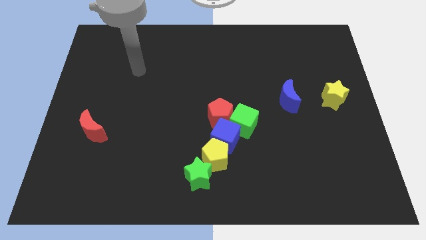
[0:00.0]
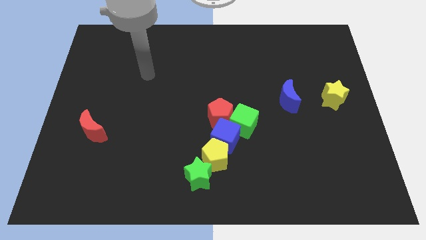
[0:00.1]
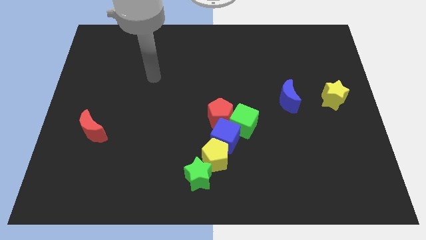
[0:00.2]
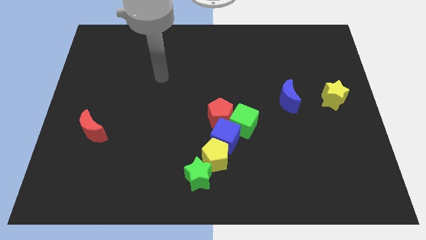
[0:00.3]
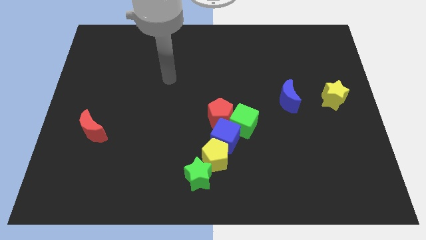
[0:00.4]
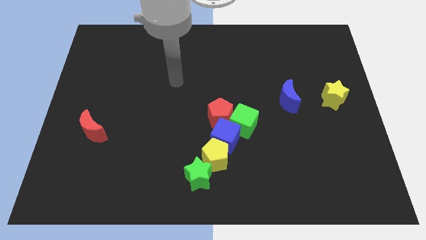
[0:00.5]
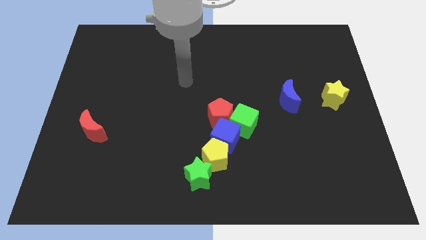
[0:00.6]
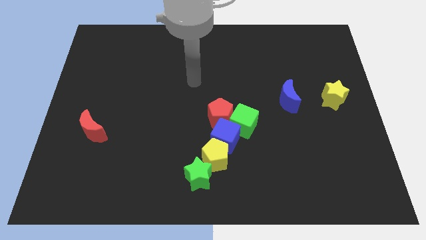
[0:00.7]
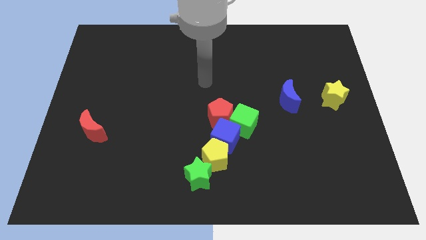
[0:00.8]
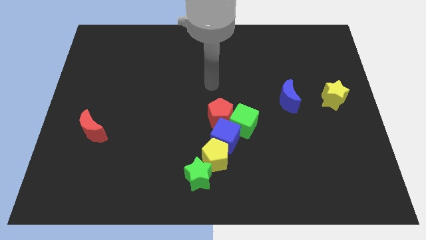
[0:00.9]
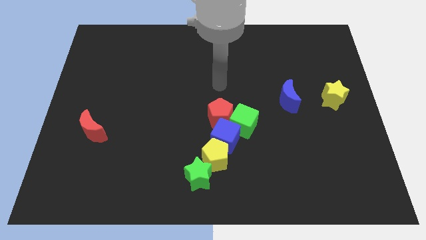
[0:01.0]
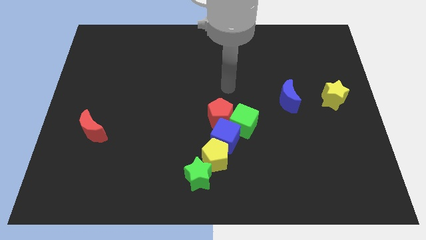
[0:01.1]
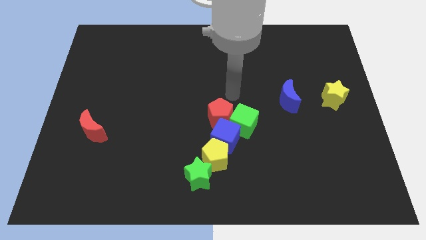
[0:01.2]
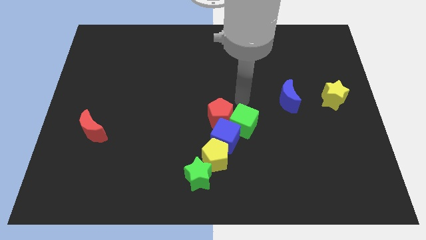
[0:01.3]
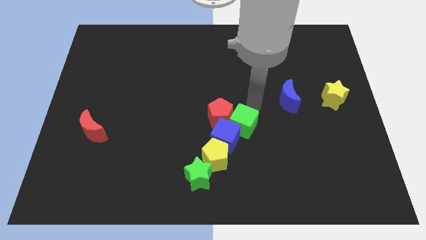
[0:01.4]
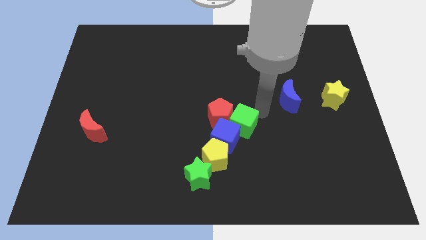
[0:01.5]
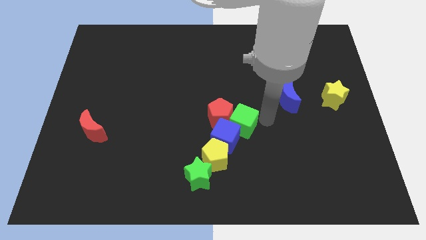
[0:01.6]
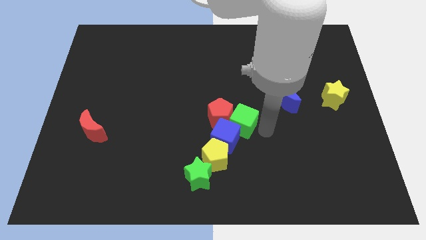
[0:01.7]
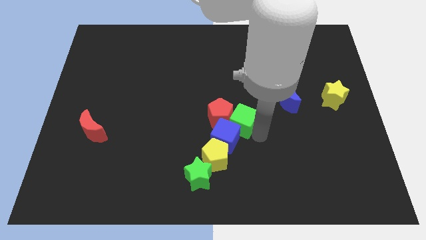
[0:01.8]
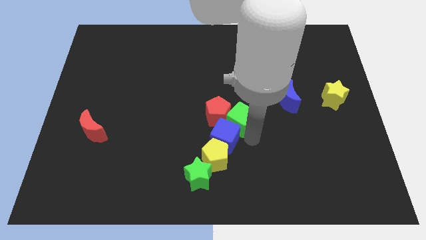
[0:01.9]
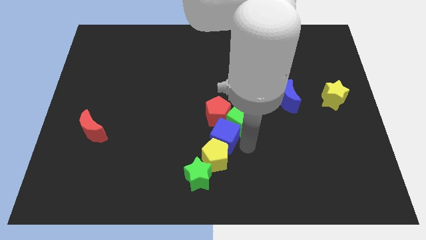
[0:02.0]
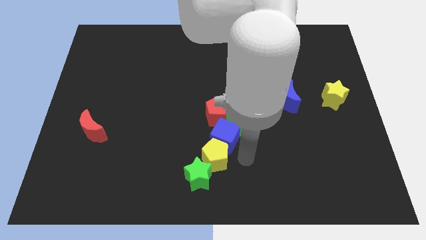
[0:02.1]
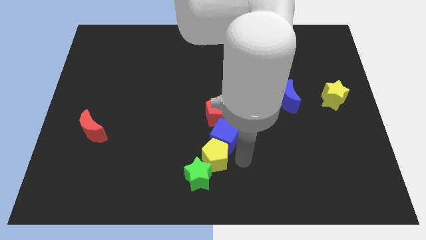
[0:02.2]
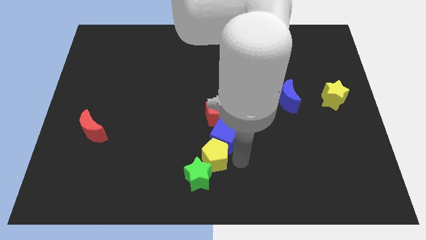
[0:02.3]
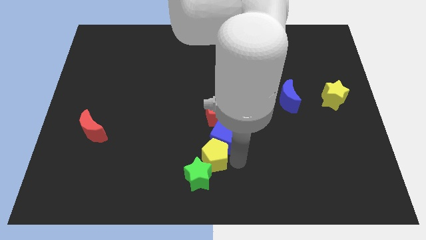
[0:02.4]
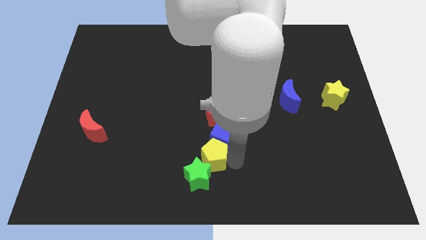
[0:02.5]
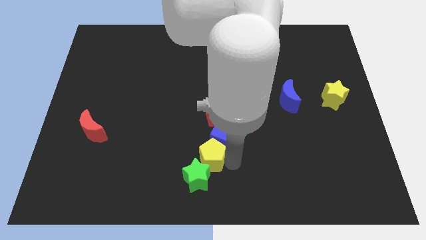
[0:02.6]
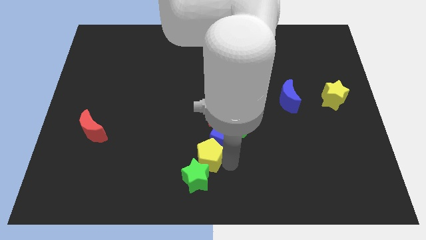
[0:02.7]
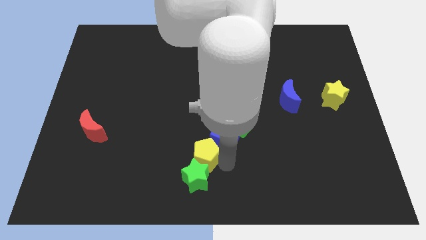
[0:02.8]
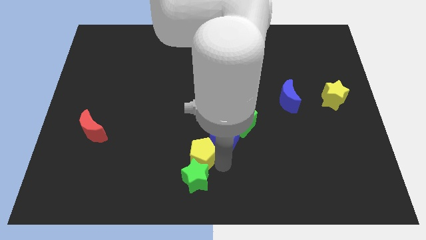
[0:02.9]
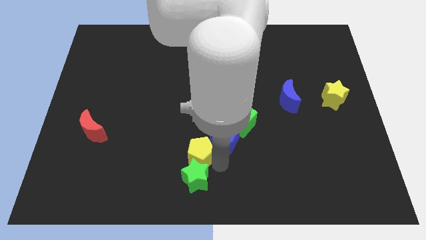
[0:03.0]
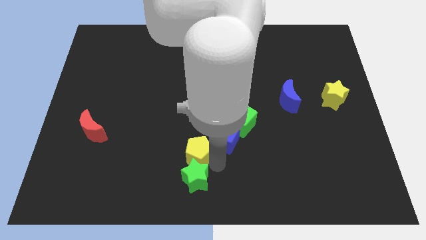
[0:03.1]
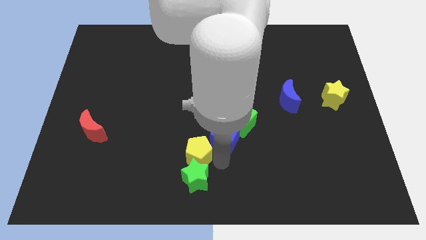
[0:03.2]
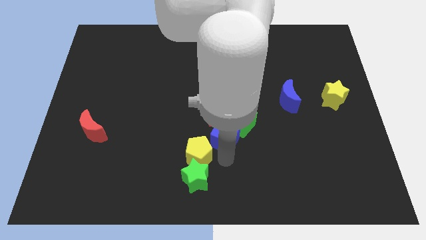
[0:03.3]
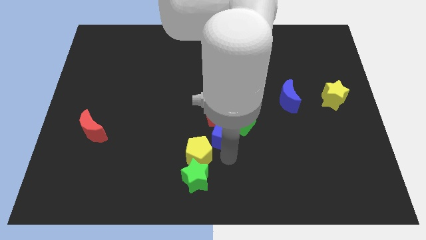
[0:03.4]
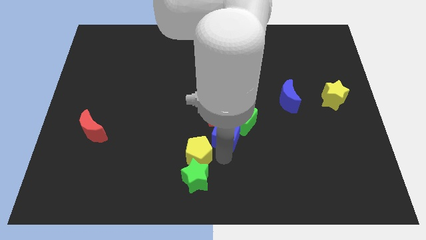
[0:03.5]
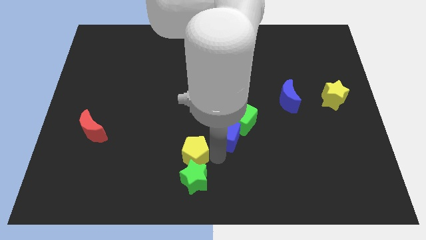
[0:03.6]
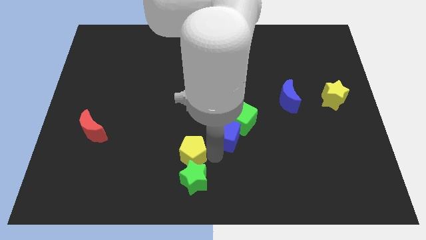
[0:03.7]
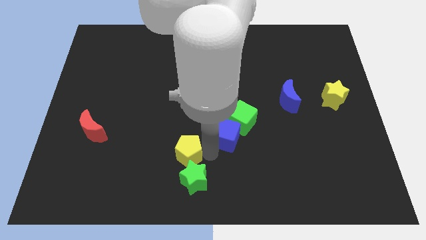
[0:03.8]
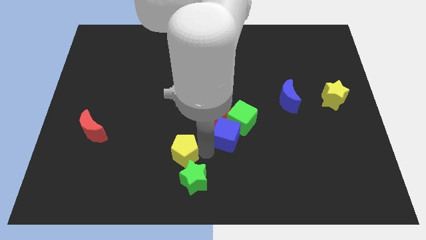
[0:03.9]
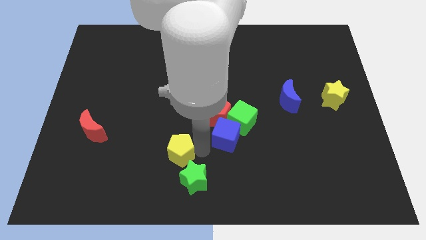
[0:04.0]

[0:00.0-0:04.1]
slide the yellow pentagon left a bit

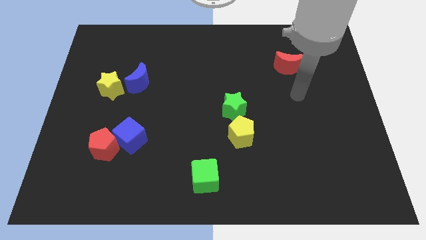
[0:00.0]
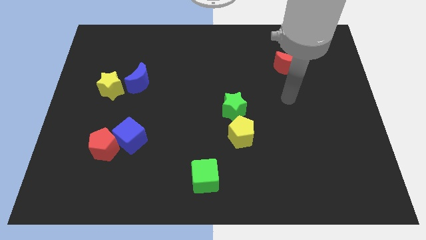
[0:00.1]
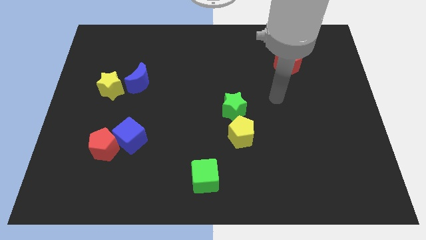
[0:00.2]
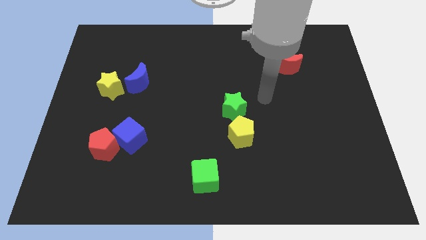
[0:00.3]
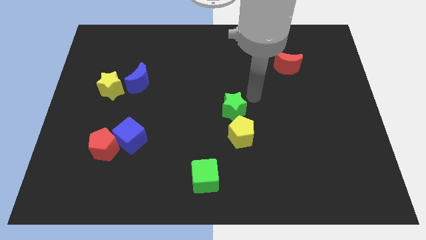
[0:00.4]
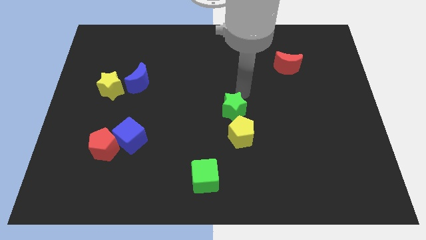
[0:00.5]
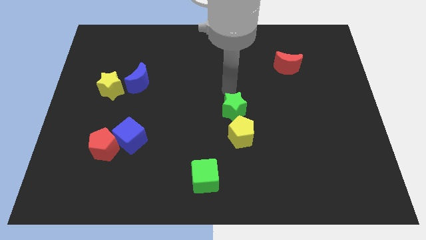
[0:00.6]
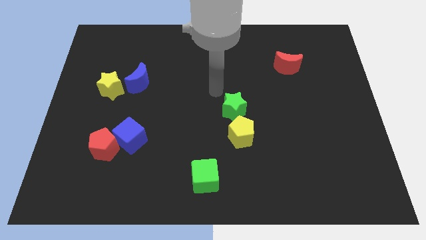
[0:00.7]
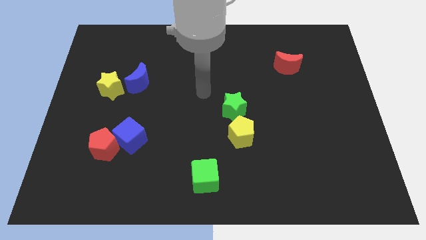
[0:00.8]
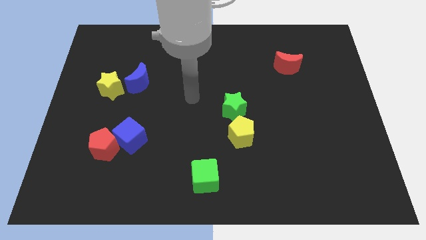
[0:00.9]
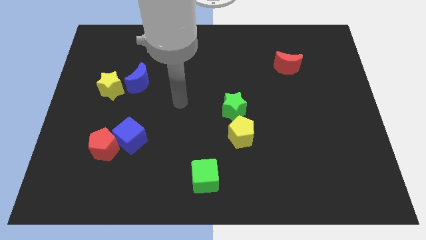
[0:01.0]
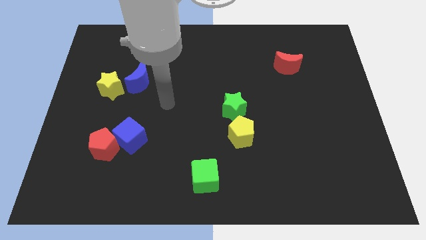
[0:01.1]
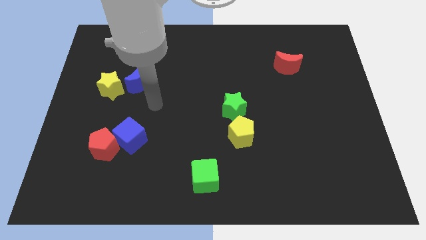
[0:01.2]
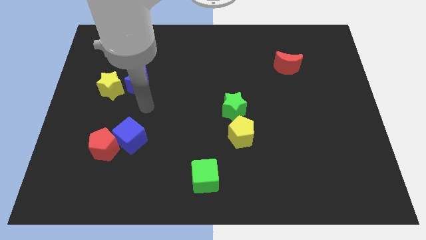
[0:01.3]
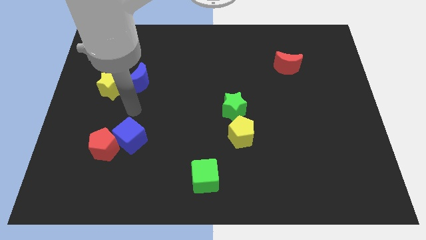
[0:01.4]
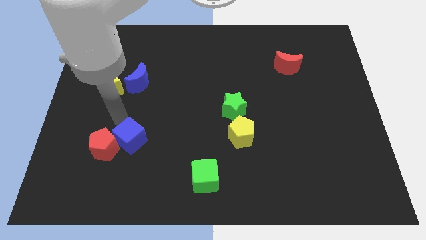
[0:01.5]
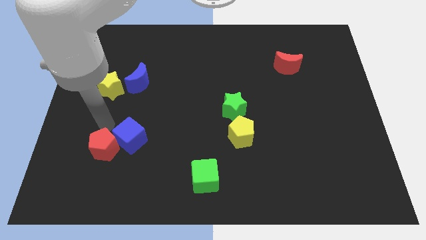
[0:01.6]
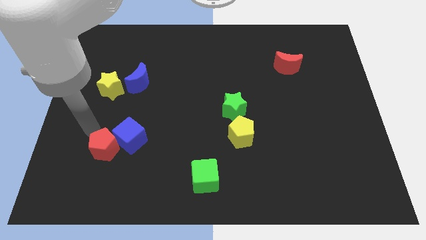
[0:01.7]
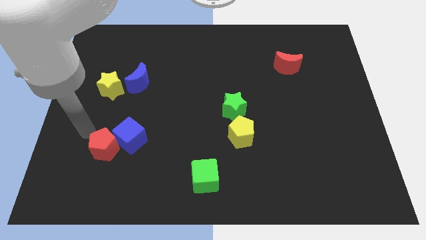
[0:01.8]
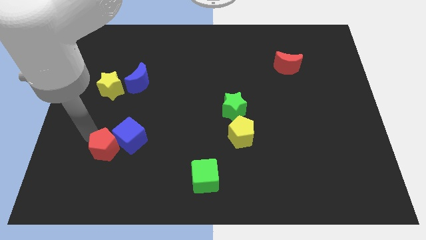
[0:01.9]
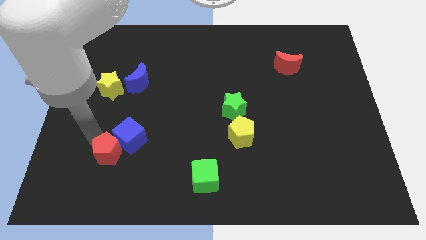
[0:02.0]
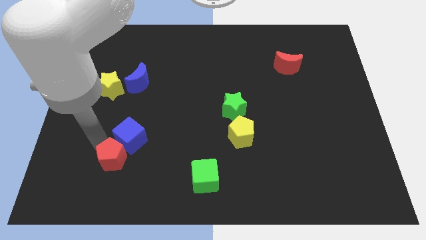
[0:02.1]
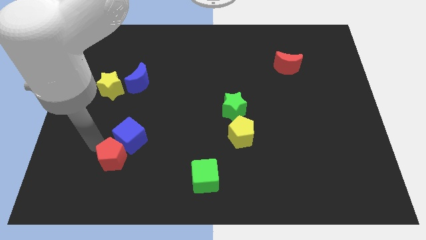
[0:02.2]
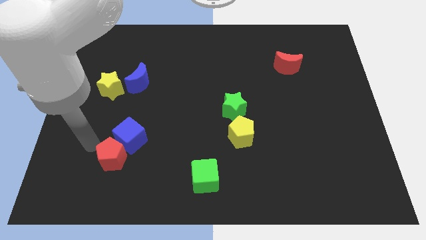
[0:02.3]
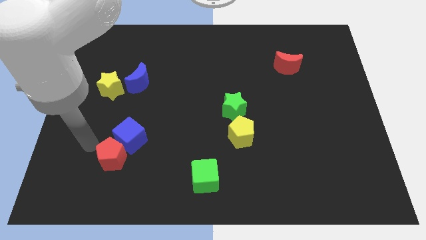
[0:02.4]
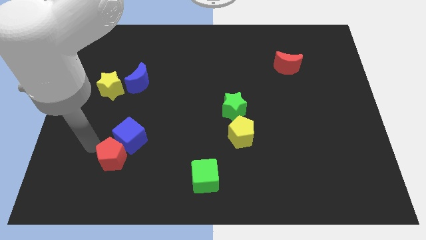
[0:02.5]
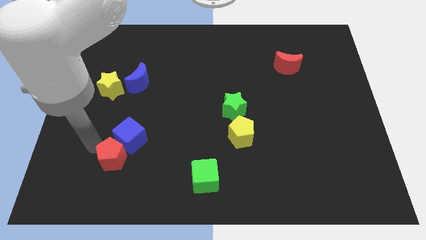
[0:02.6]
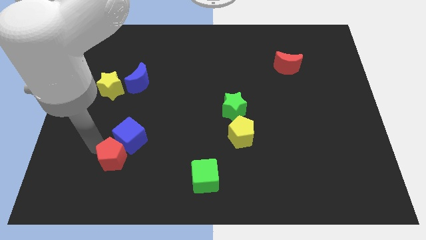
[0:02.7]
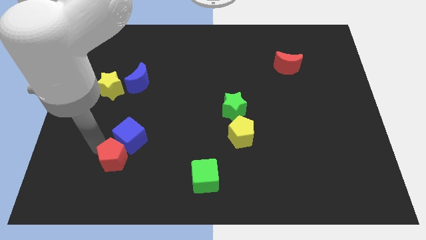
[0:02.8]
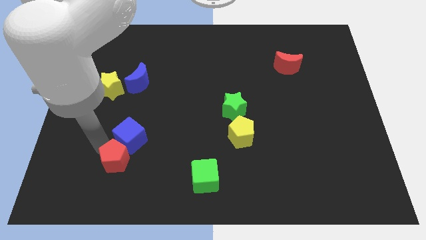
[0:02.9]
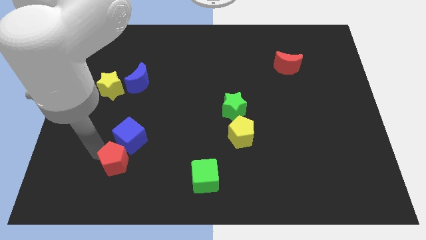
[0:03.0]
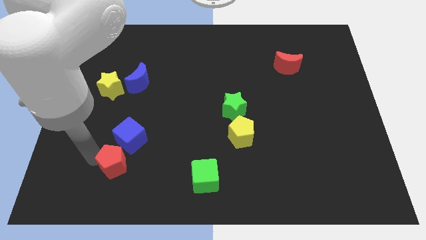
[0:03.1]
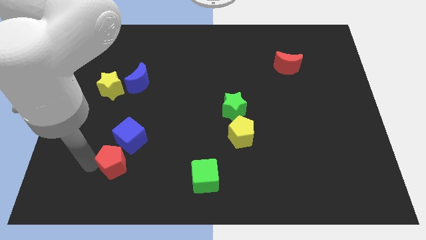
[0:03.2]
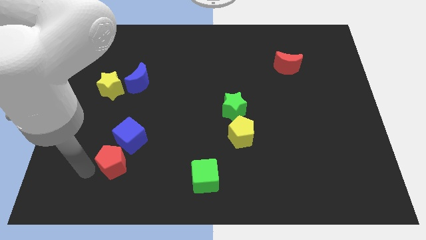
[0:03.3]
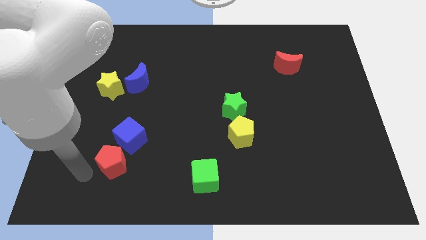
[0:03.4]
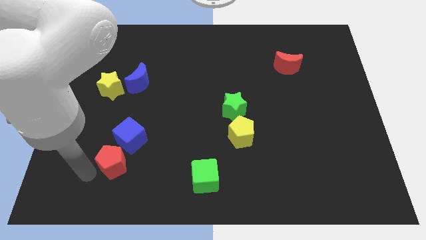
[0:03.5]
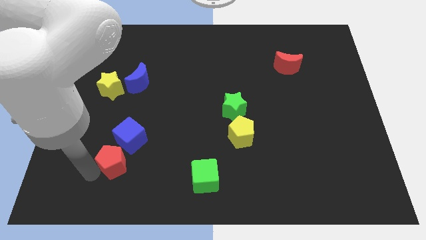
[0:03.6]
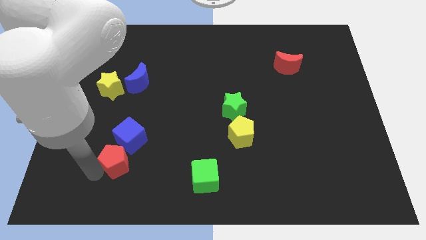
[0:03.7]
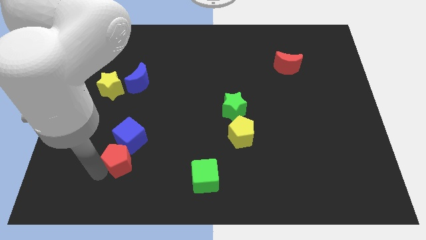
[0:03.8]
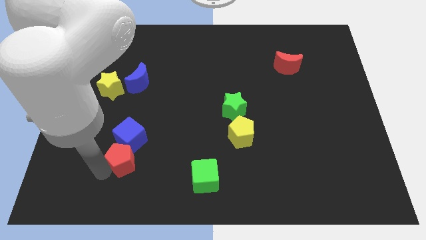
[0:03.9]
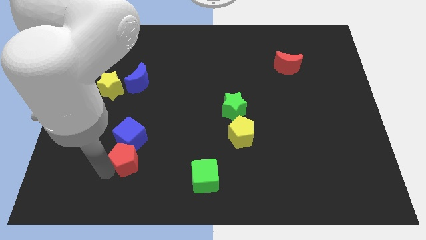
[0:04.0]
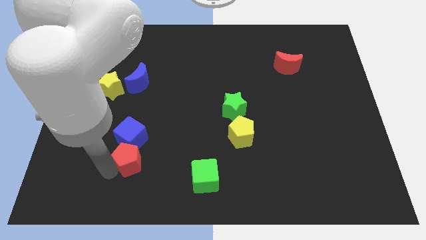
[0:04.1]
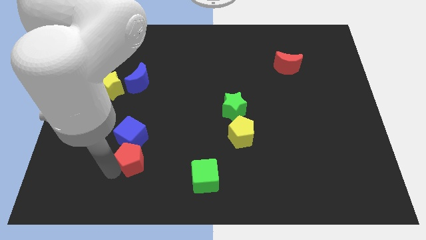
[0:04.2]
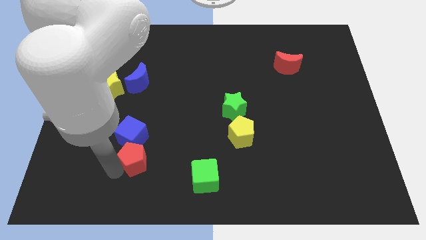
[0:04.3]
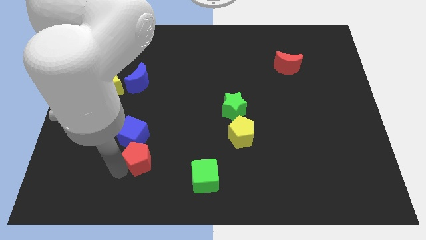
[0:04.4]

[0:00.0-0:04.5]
slightly slide the red pentagon right
